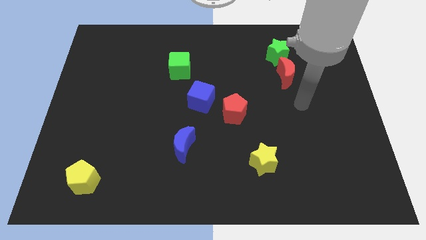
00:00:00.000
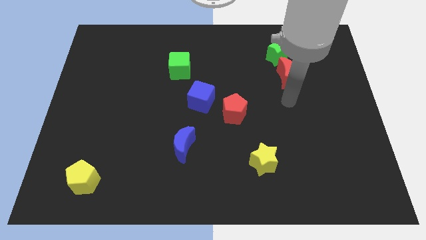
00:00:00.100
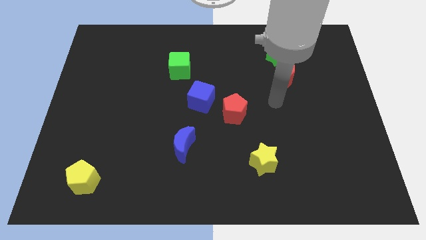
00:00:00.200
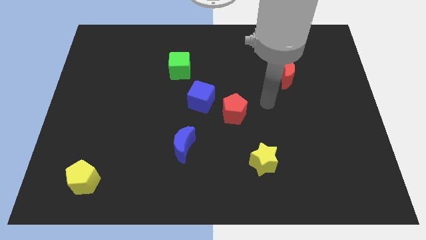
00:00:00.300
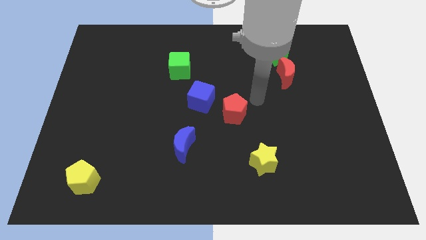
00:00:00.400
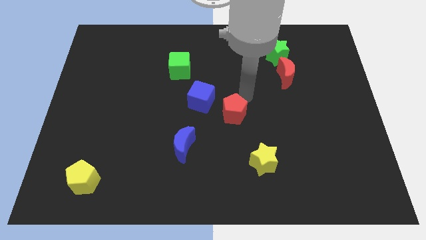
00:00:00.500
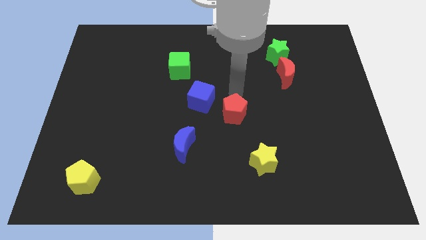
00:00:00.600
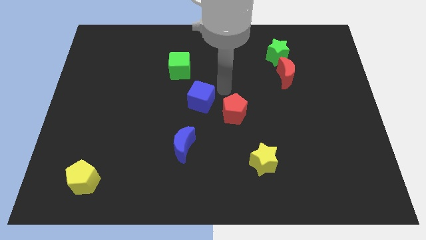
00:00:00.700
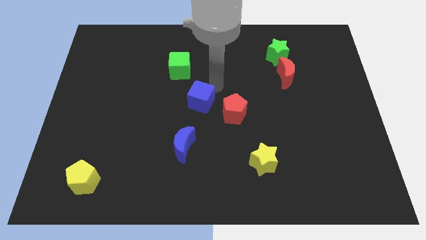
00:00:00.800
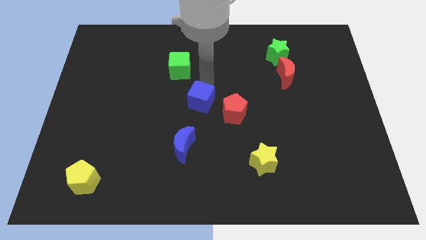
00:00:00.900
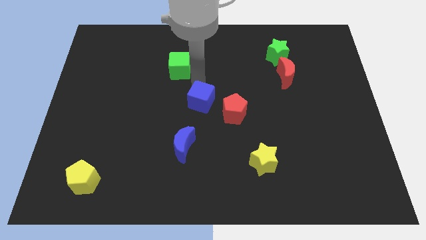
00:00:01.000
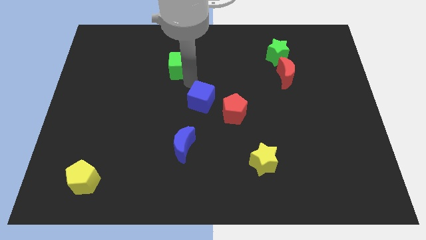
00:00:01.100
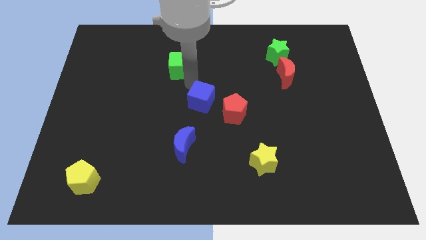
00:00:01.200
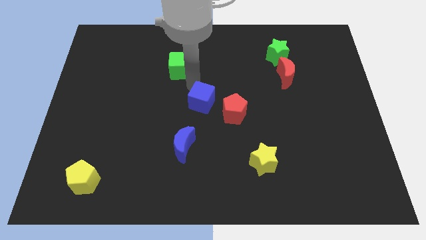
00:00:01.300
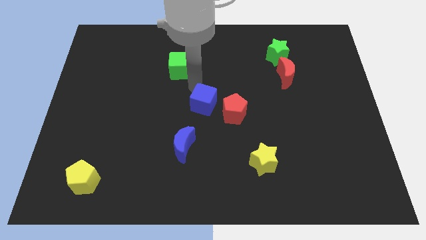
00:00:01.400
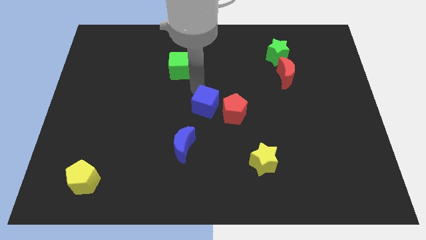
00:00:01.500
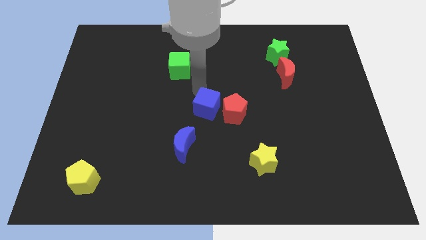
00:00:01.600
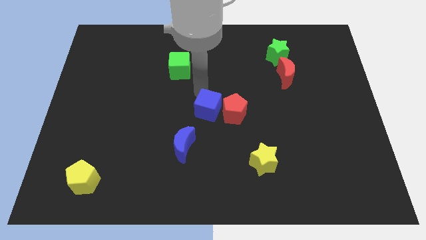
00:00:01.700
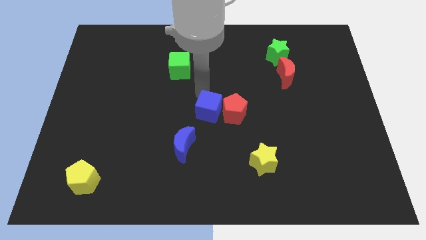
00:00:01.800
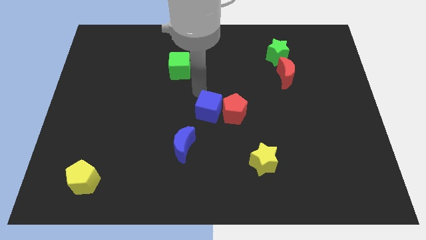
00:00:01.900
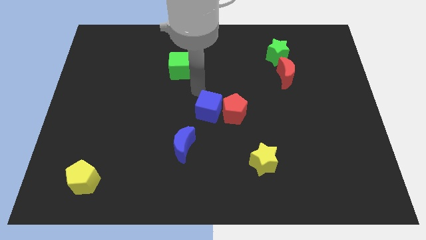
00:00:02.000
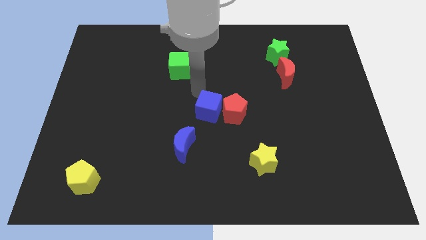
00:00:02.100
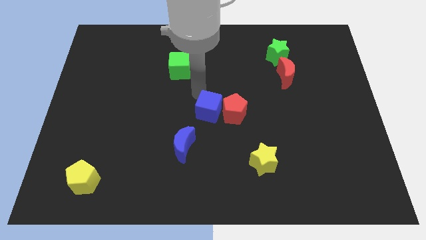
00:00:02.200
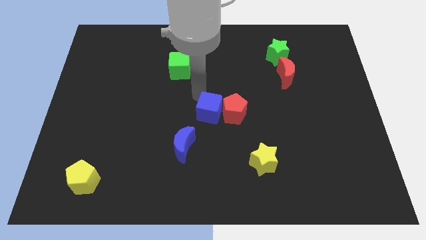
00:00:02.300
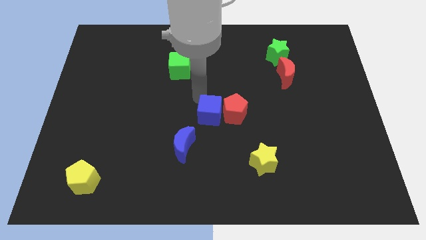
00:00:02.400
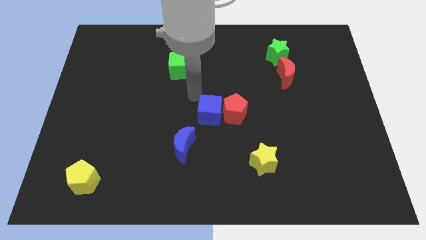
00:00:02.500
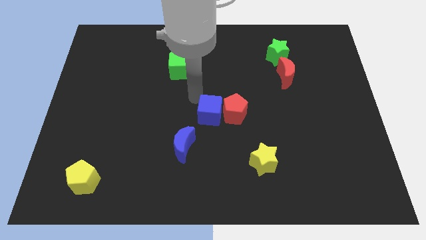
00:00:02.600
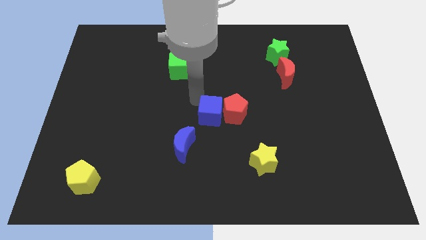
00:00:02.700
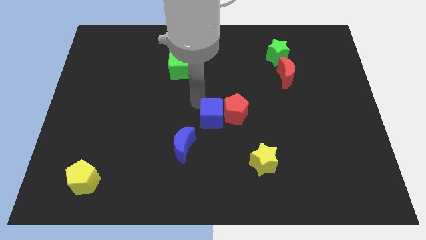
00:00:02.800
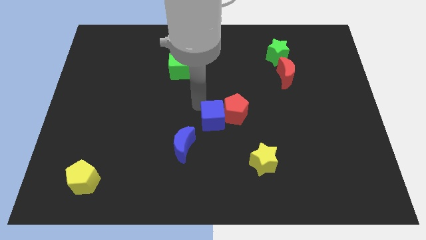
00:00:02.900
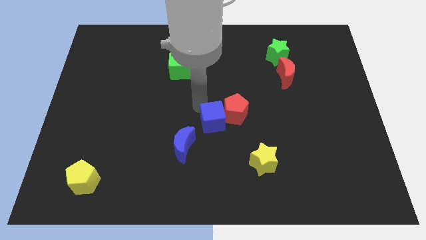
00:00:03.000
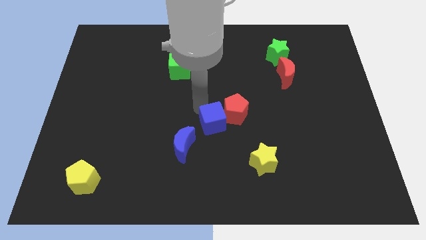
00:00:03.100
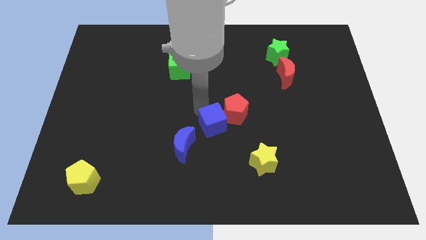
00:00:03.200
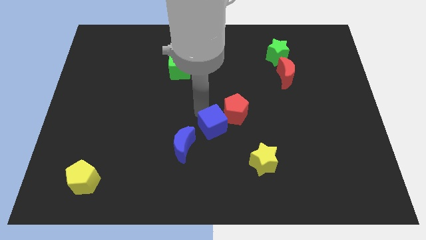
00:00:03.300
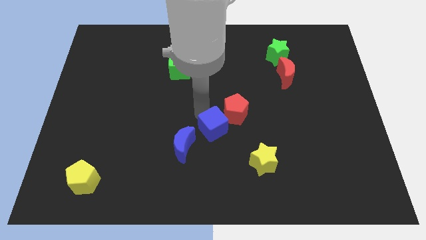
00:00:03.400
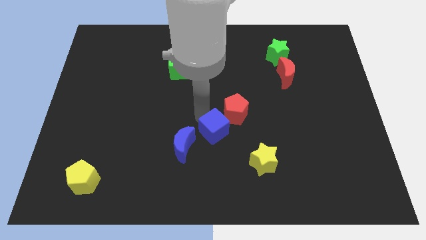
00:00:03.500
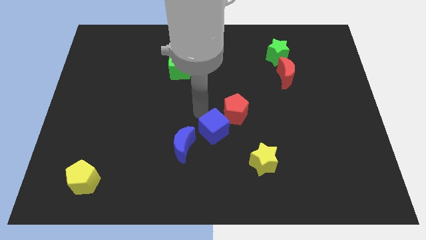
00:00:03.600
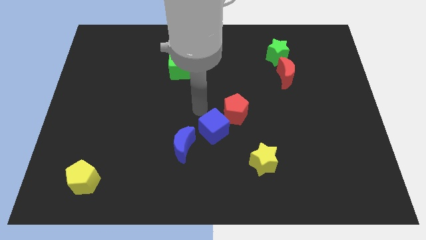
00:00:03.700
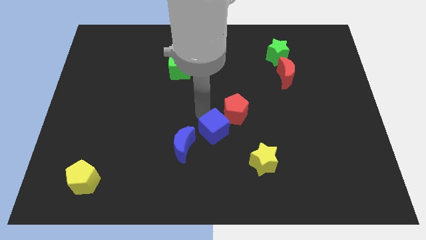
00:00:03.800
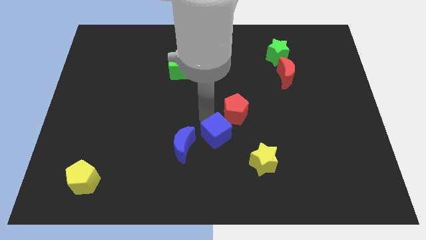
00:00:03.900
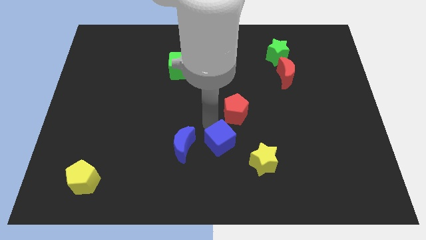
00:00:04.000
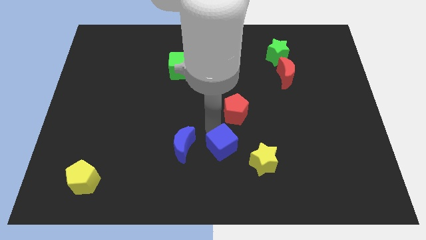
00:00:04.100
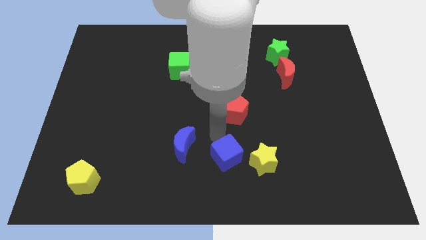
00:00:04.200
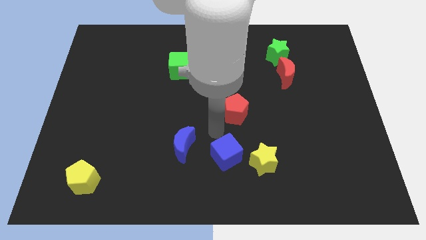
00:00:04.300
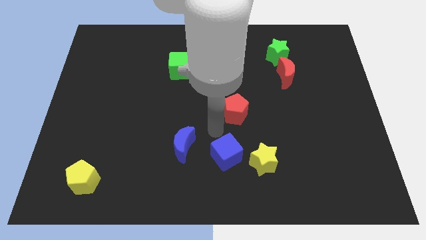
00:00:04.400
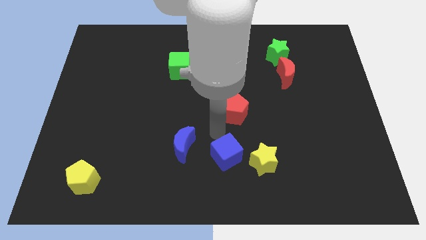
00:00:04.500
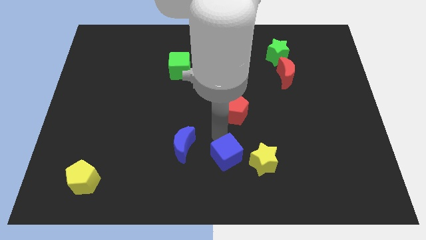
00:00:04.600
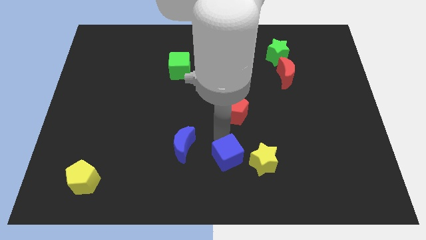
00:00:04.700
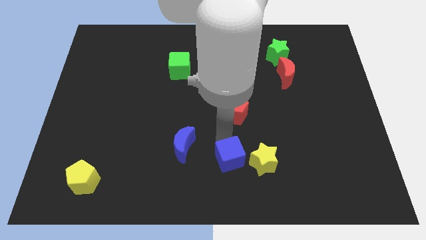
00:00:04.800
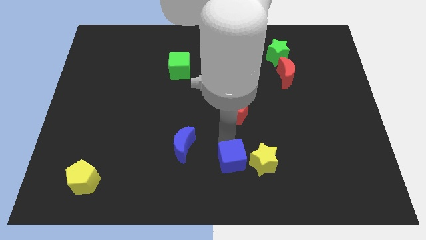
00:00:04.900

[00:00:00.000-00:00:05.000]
push the blue cube to the bottom left side of the yellow star

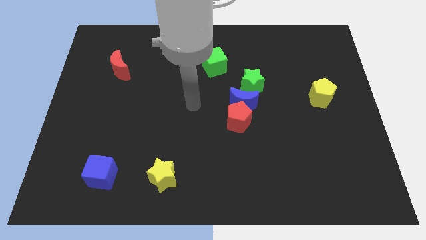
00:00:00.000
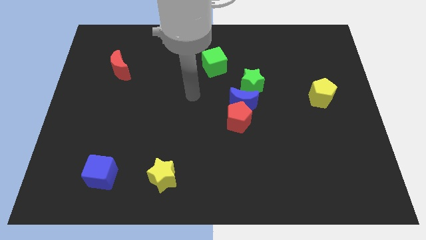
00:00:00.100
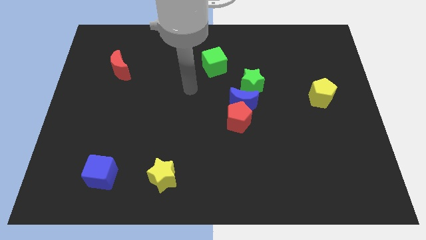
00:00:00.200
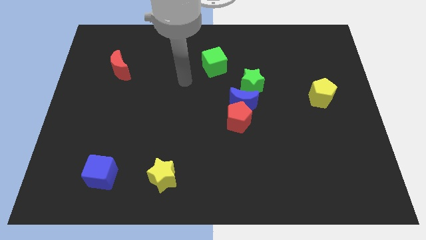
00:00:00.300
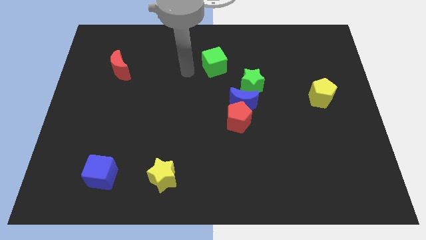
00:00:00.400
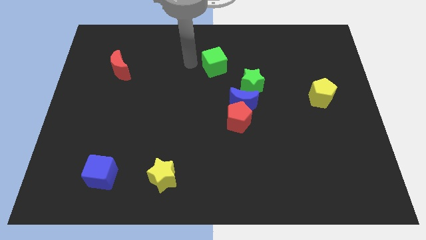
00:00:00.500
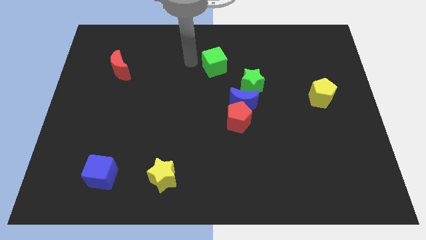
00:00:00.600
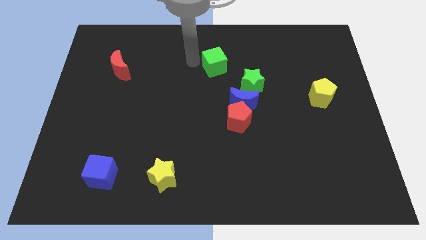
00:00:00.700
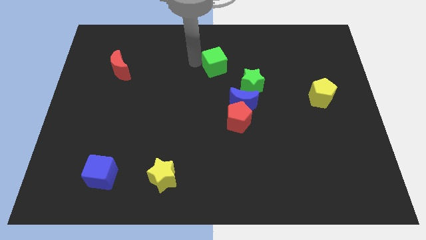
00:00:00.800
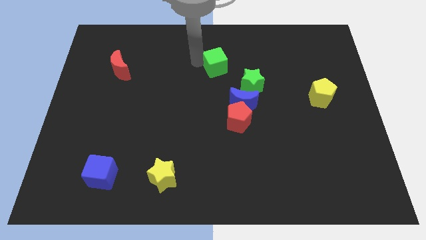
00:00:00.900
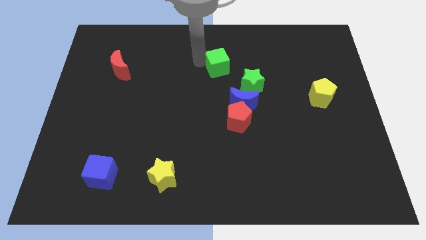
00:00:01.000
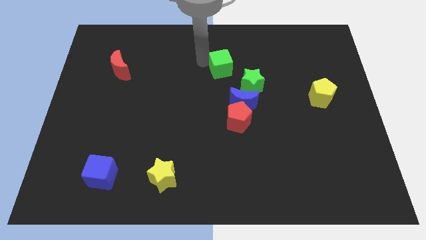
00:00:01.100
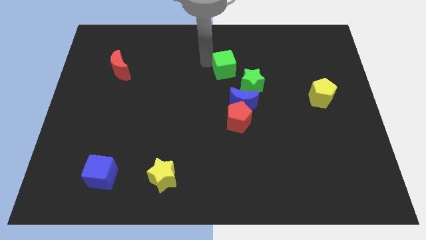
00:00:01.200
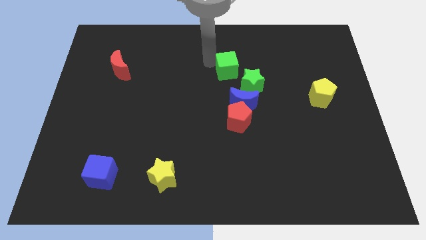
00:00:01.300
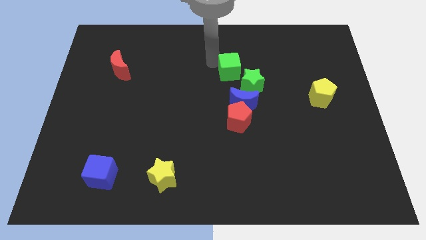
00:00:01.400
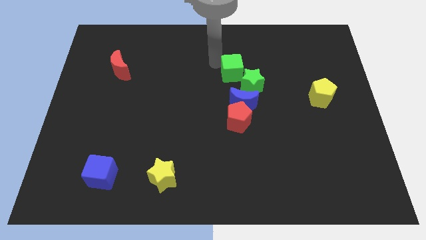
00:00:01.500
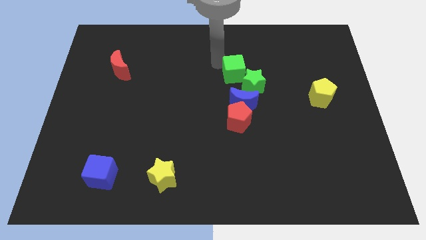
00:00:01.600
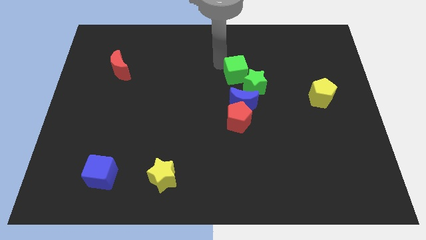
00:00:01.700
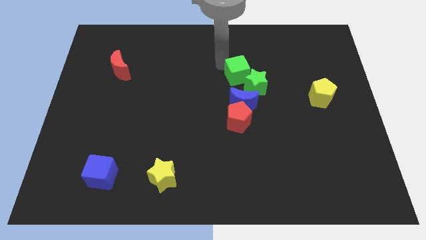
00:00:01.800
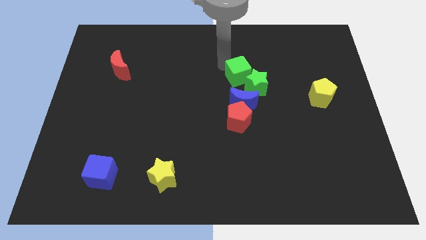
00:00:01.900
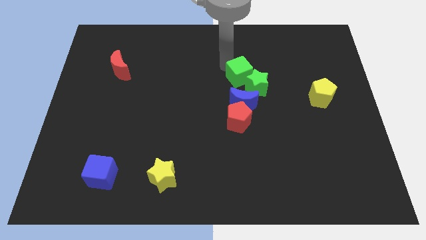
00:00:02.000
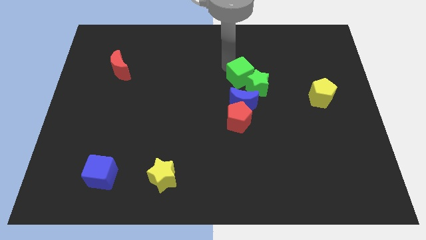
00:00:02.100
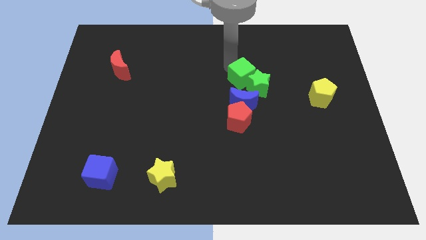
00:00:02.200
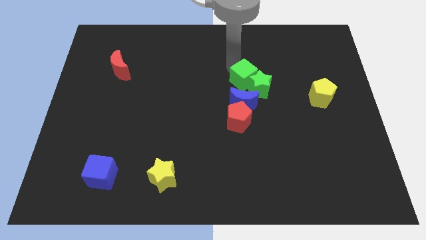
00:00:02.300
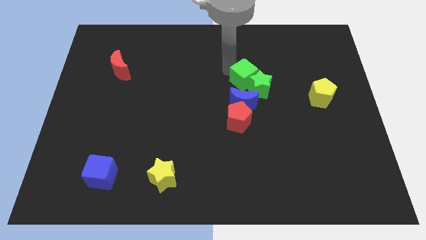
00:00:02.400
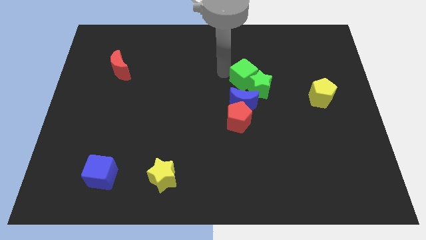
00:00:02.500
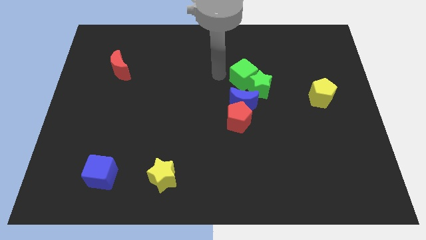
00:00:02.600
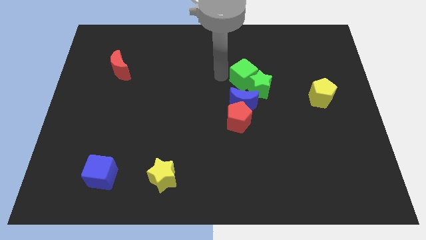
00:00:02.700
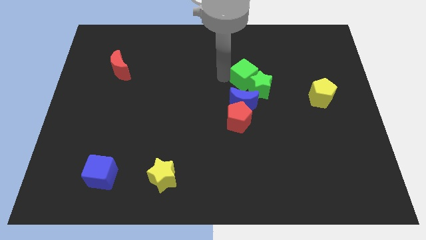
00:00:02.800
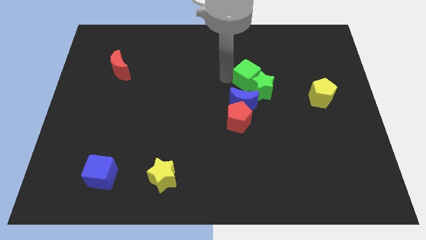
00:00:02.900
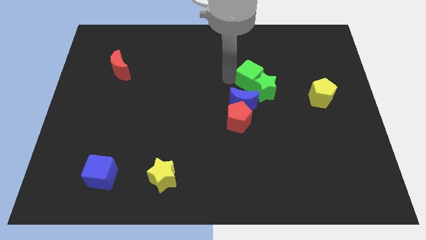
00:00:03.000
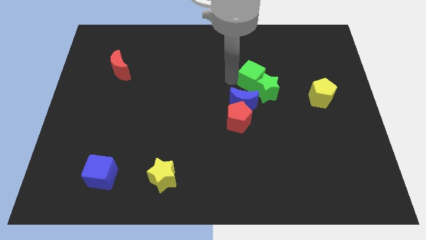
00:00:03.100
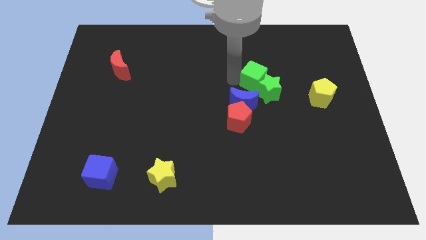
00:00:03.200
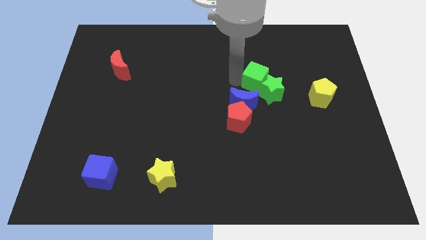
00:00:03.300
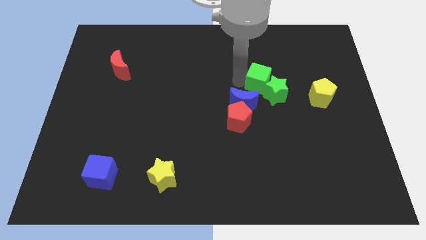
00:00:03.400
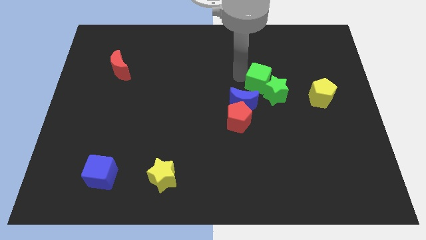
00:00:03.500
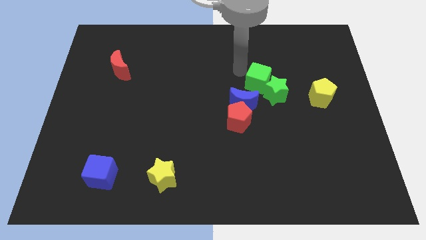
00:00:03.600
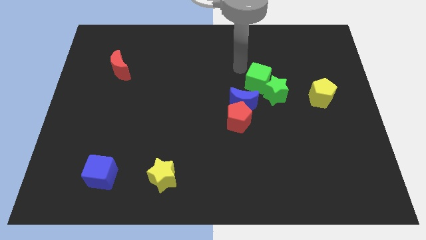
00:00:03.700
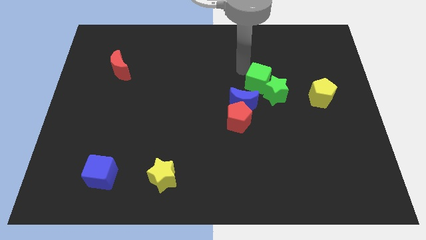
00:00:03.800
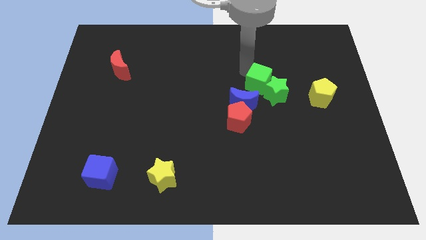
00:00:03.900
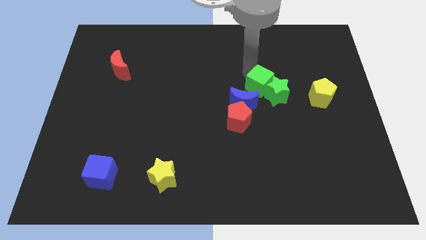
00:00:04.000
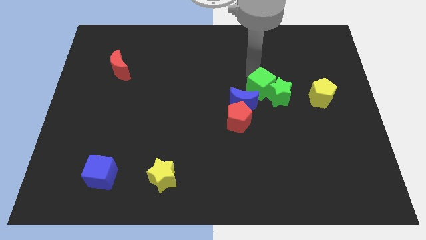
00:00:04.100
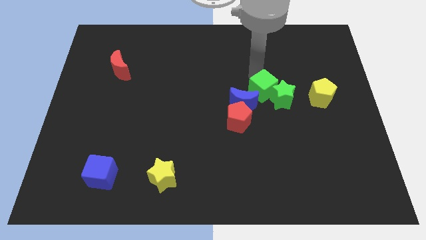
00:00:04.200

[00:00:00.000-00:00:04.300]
slide the green cube to the right side of the blue moon
